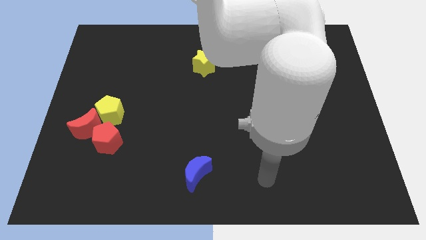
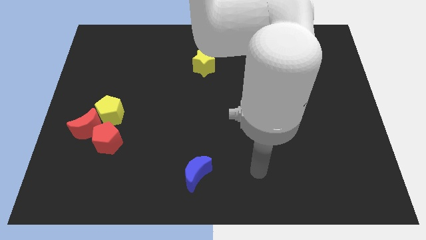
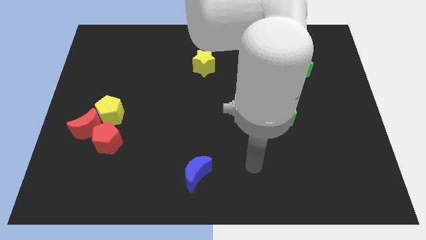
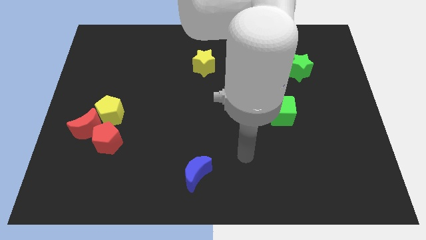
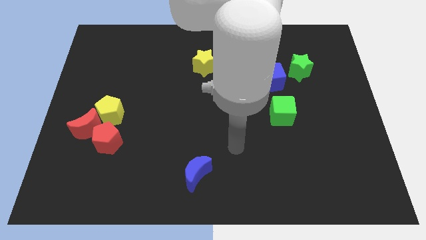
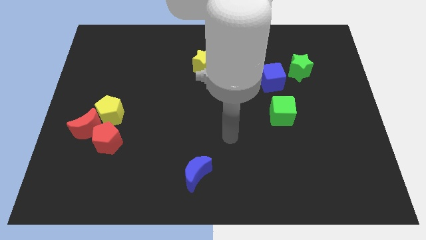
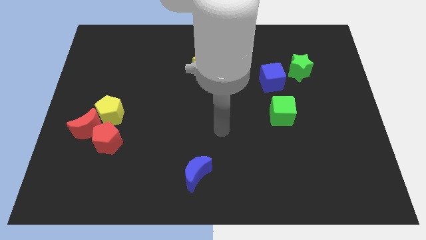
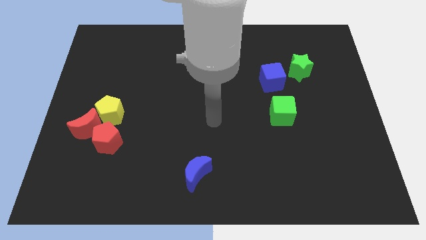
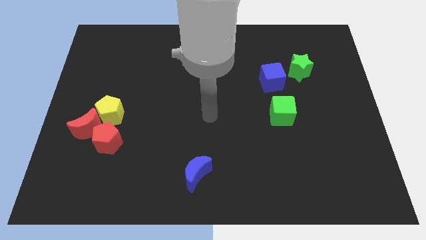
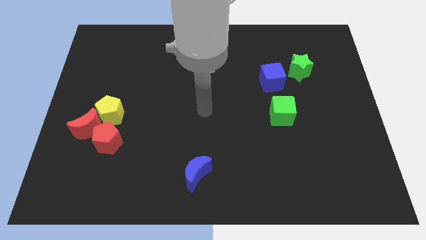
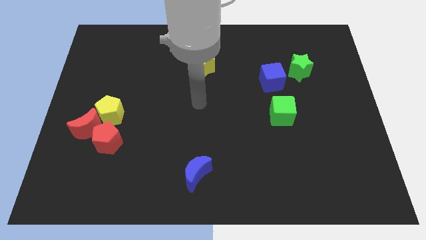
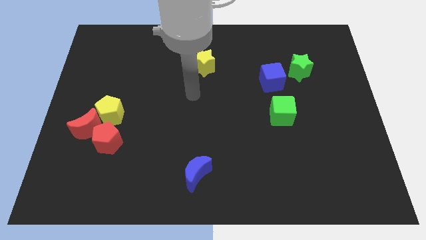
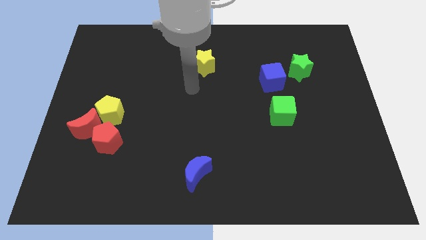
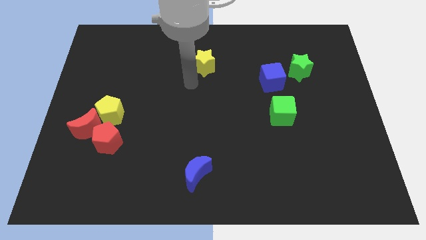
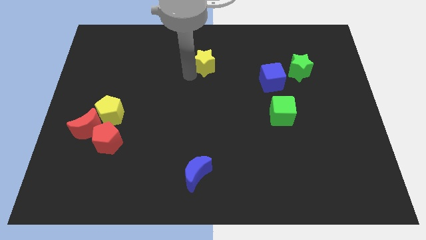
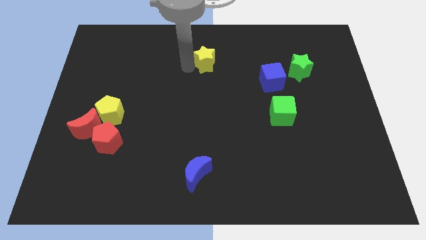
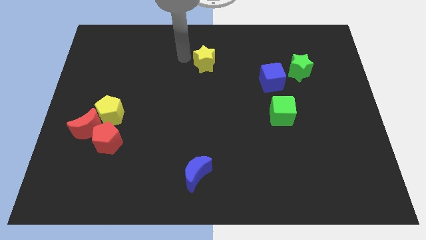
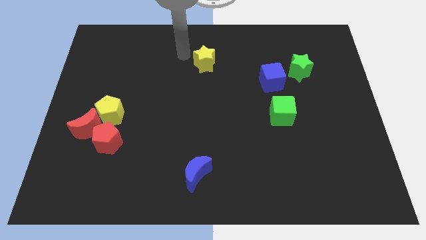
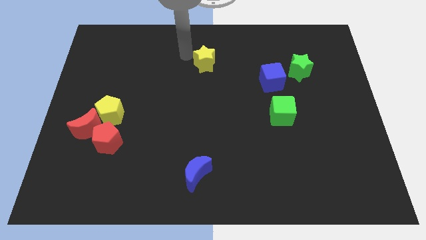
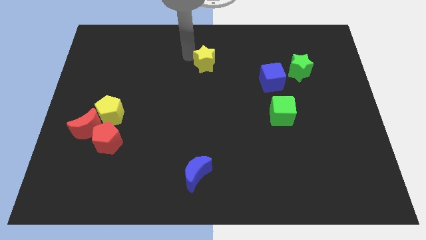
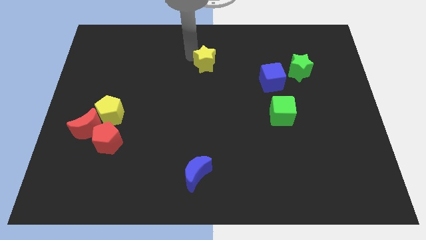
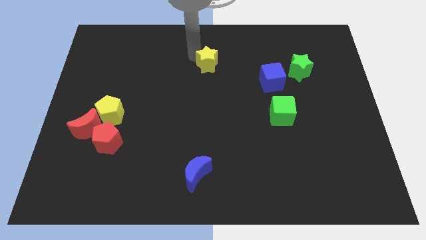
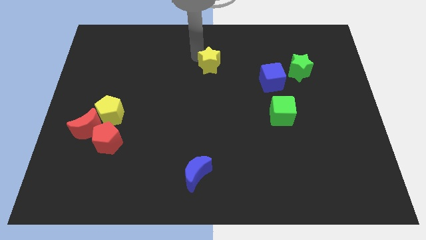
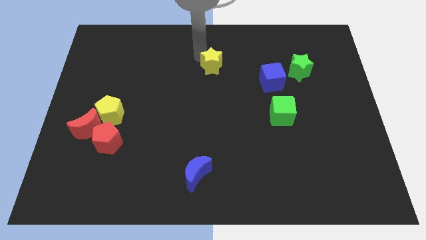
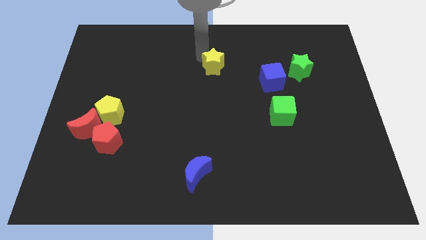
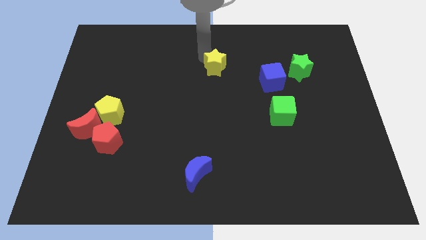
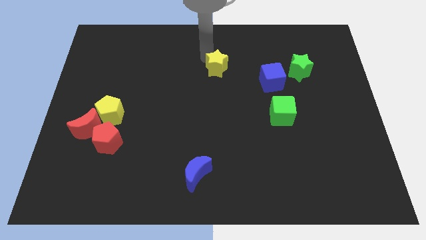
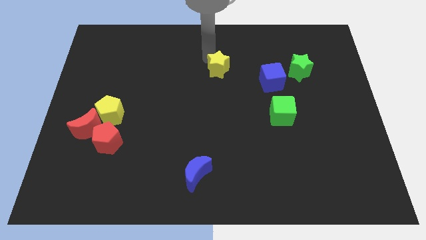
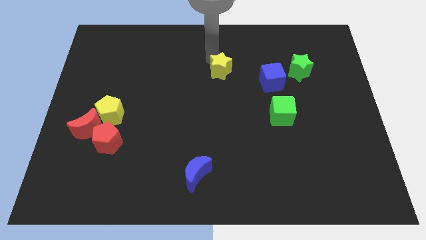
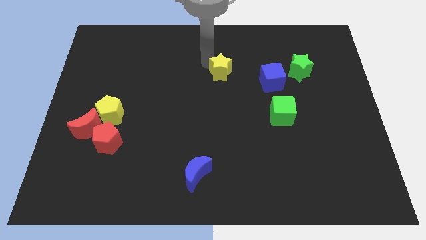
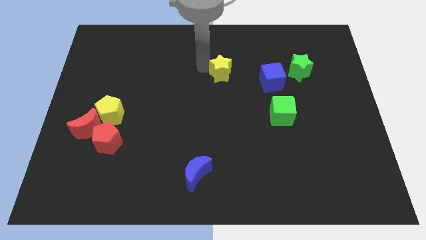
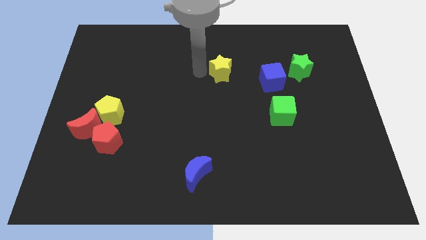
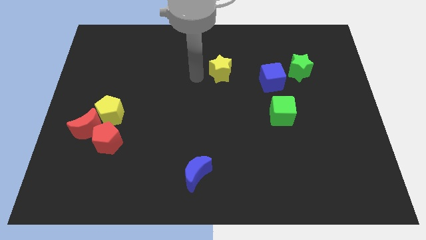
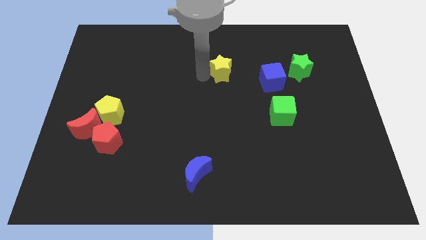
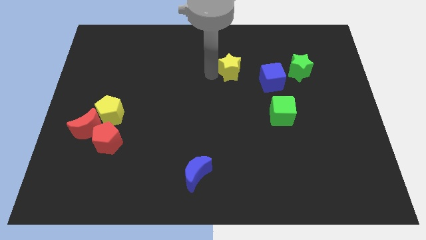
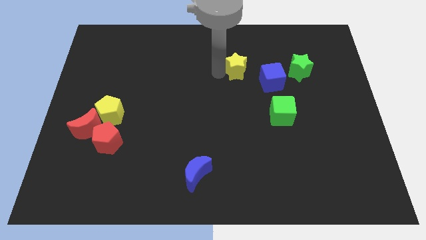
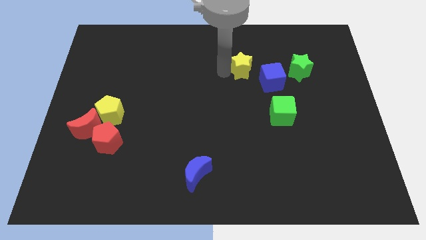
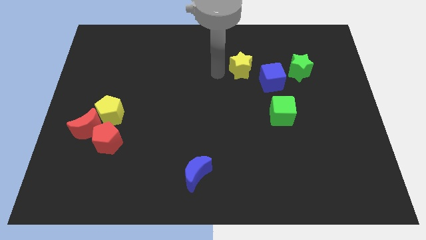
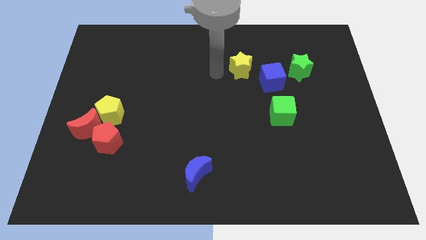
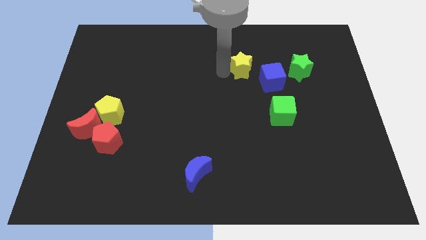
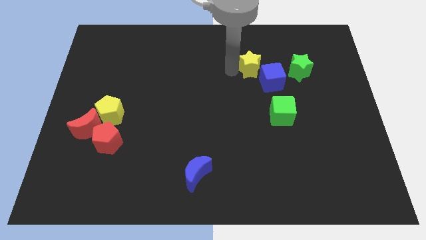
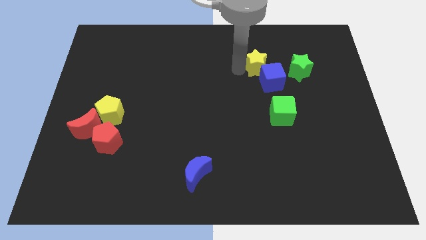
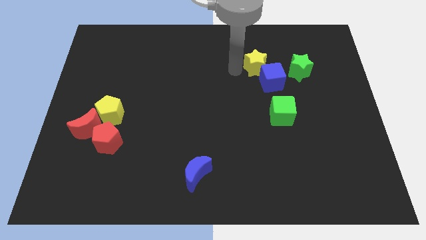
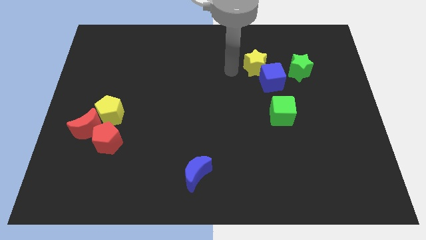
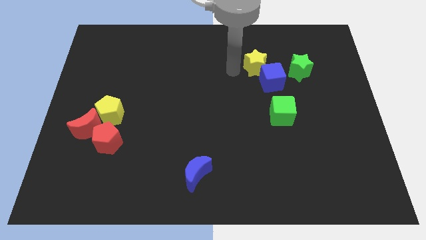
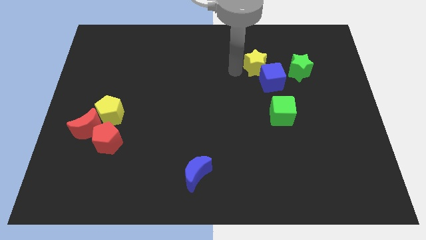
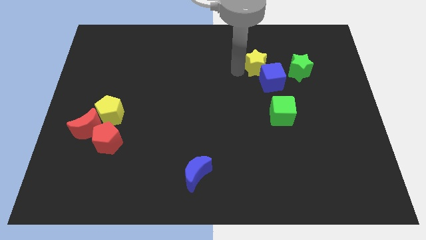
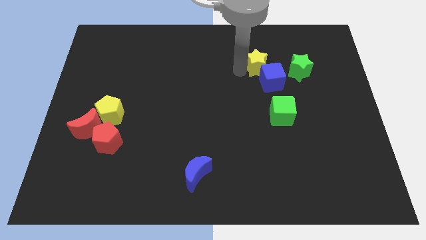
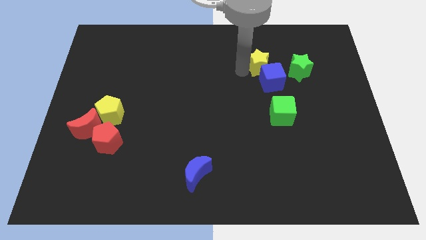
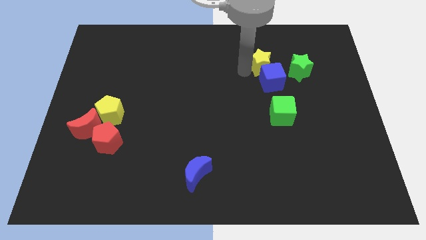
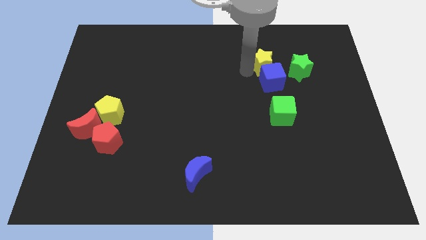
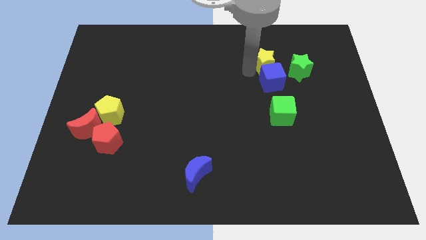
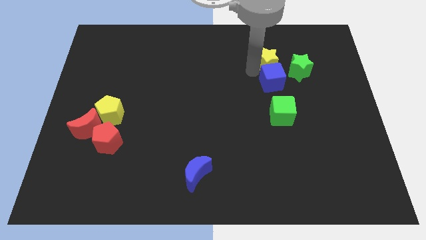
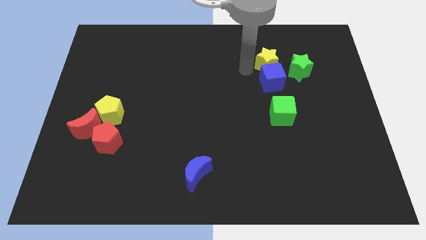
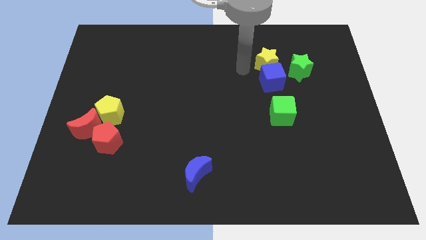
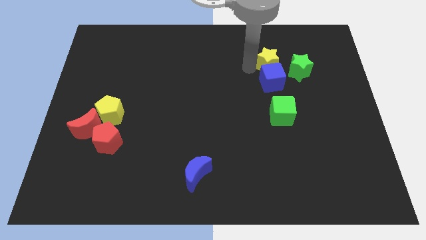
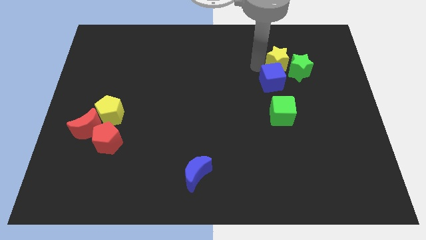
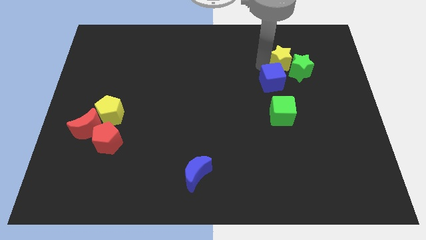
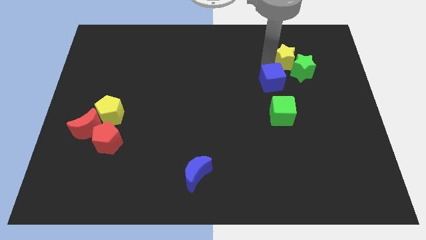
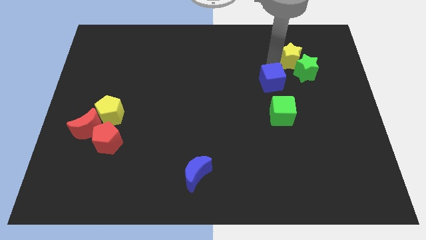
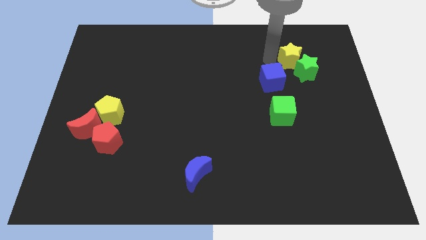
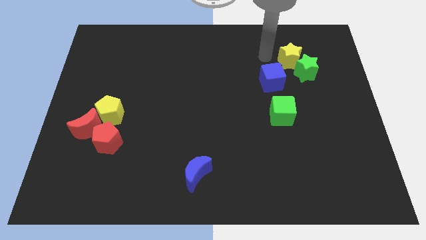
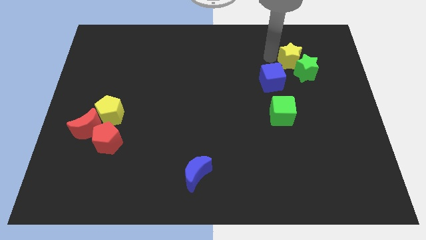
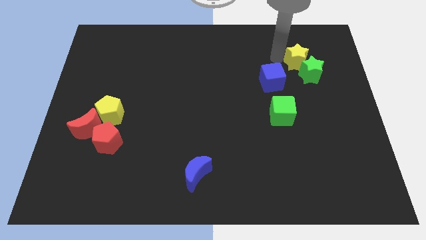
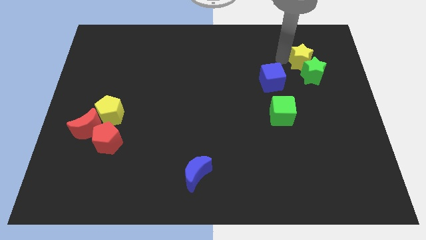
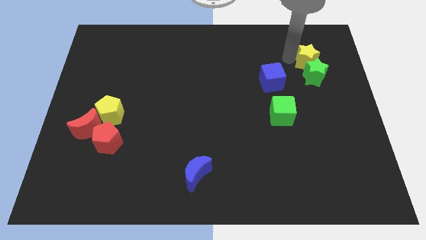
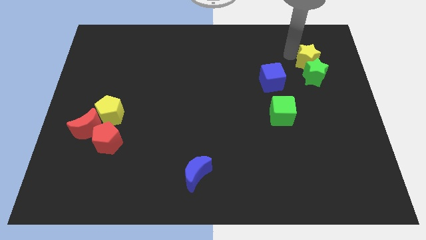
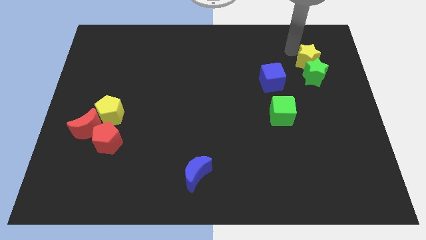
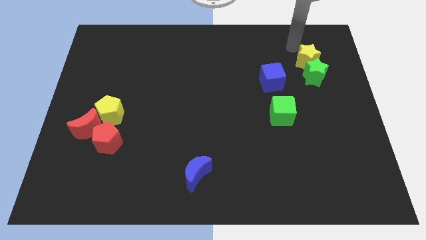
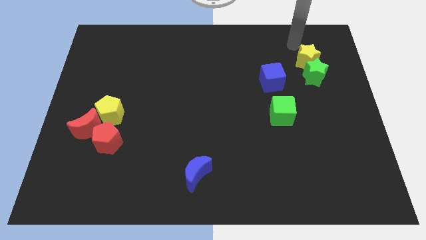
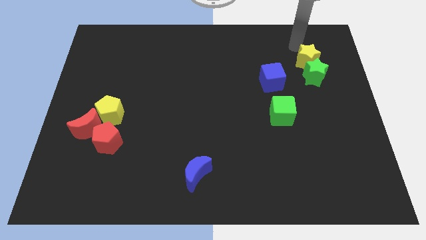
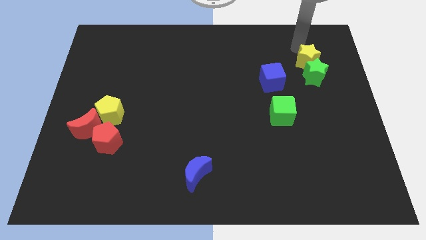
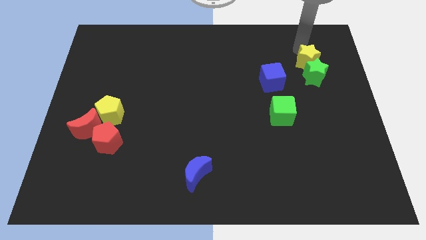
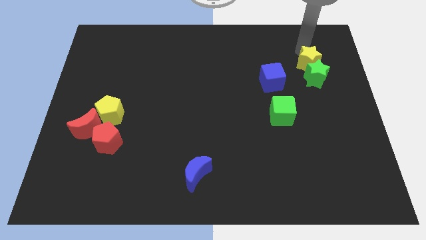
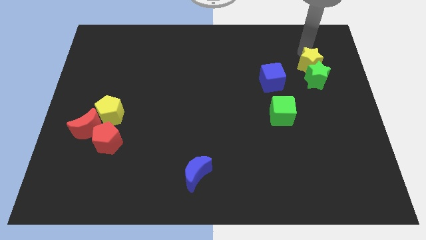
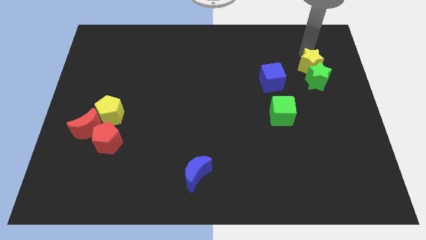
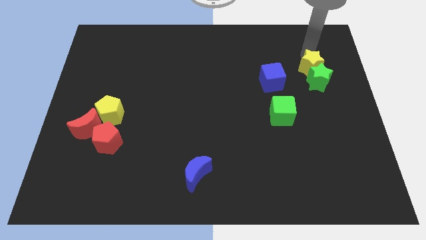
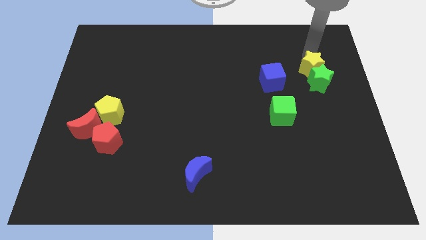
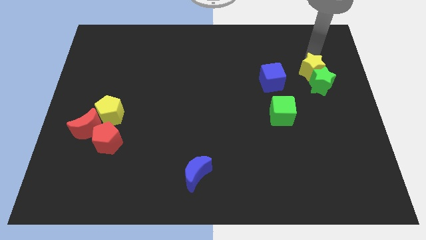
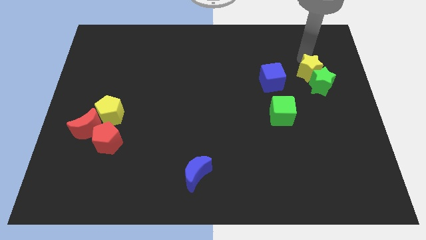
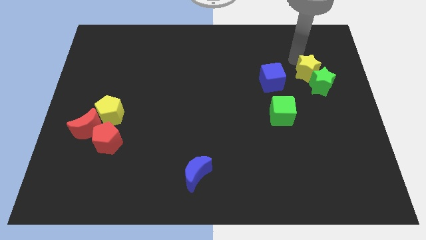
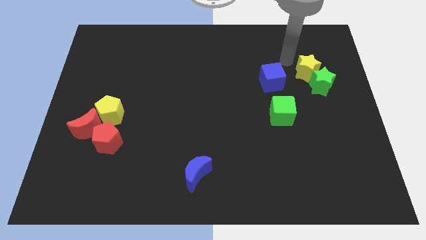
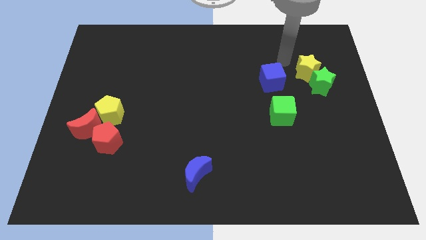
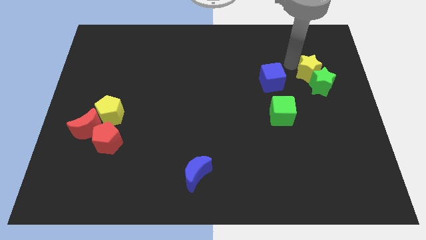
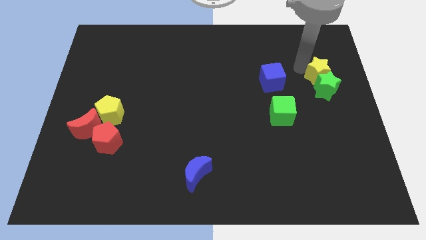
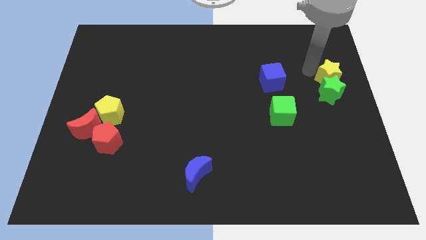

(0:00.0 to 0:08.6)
move the yellow star to the right side of the board
